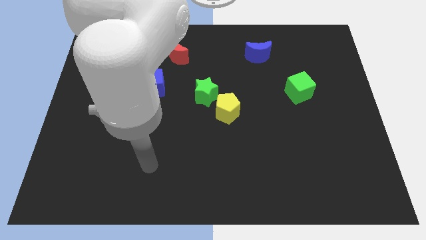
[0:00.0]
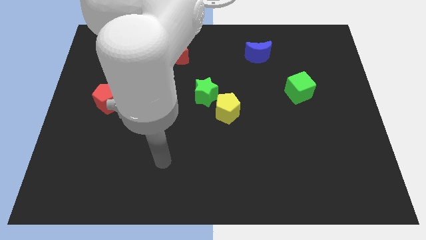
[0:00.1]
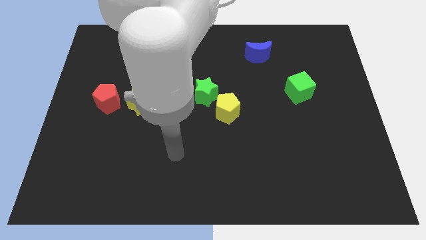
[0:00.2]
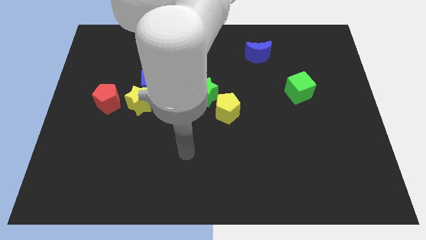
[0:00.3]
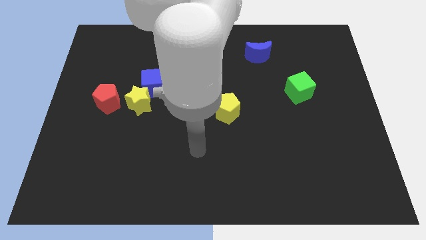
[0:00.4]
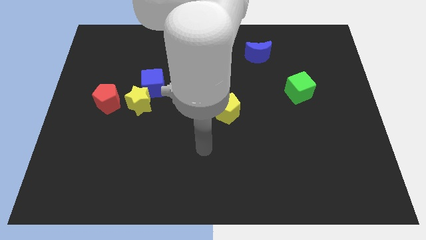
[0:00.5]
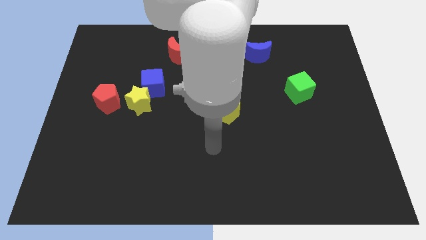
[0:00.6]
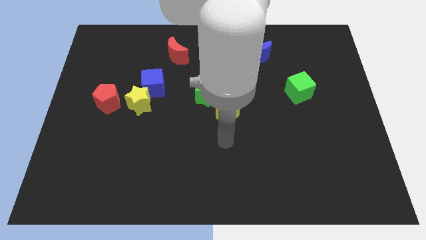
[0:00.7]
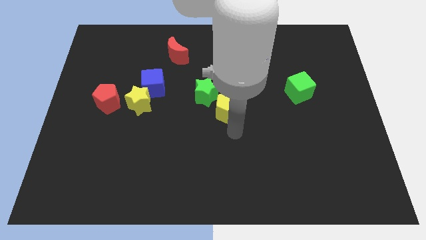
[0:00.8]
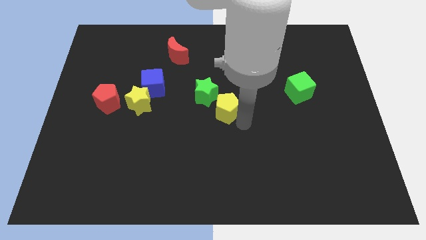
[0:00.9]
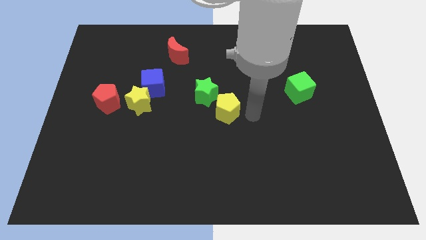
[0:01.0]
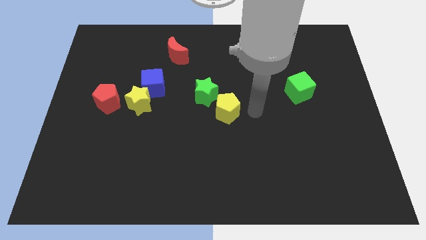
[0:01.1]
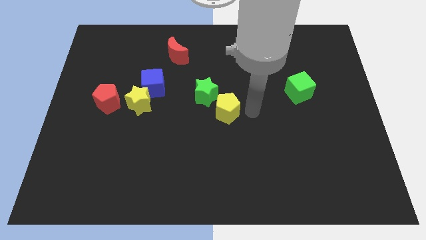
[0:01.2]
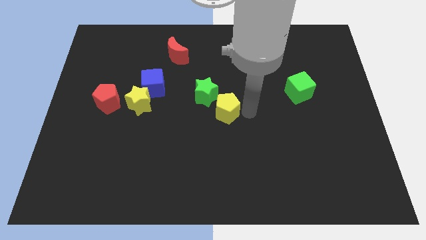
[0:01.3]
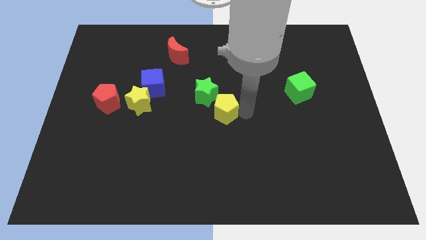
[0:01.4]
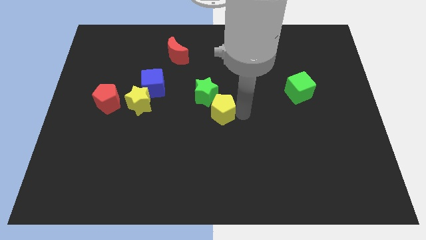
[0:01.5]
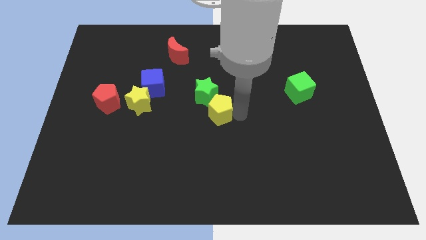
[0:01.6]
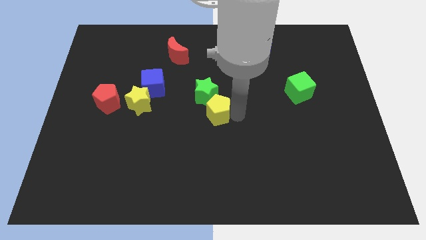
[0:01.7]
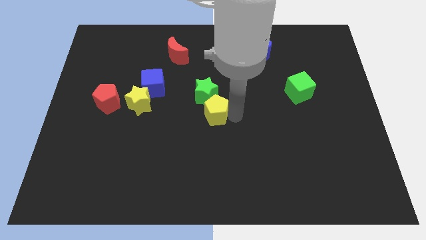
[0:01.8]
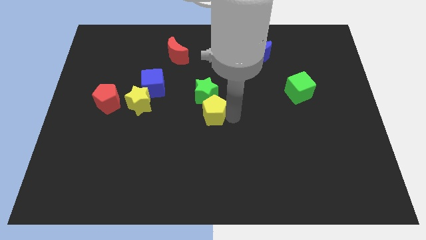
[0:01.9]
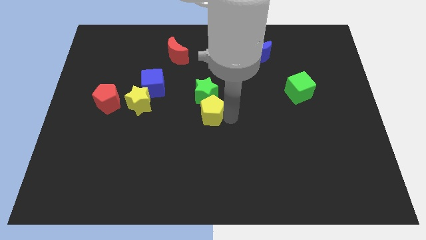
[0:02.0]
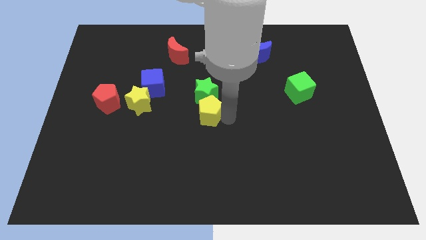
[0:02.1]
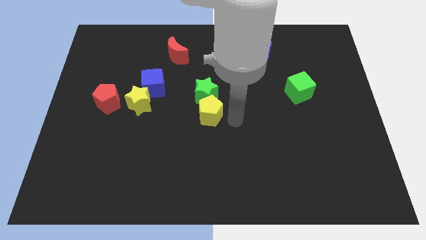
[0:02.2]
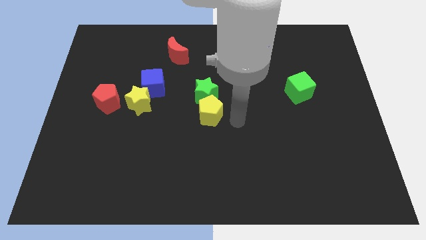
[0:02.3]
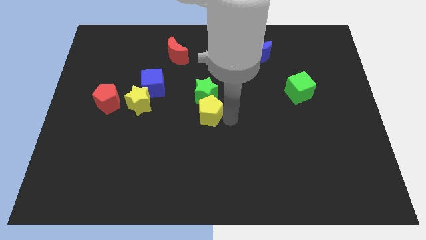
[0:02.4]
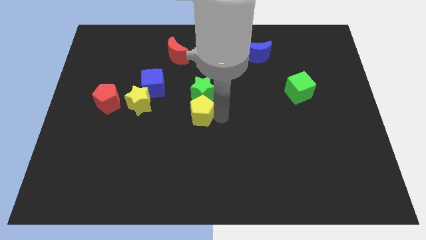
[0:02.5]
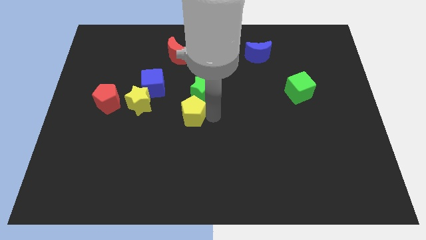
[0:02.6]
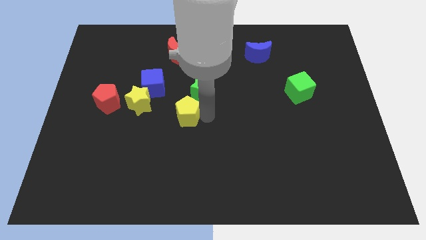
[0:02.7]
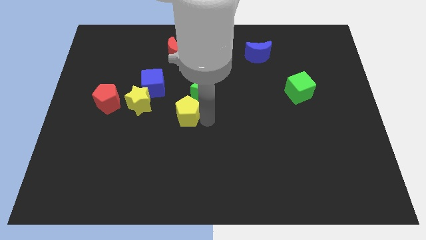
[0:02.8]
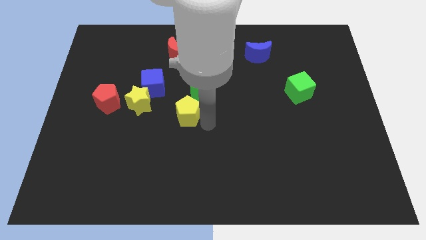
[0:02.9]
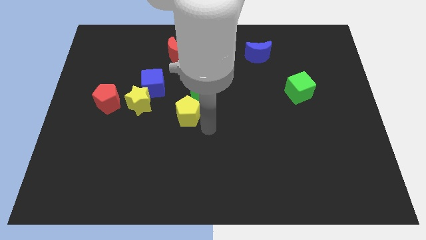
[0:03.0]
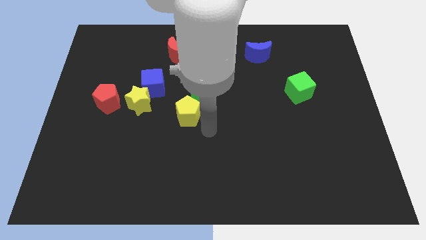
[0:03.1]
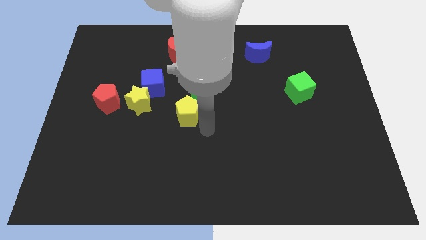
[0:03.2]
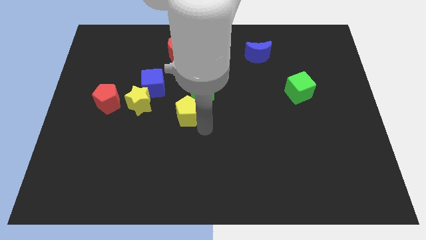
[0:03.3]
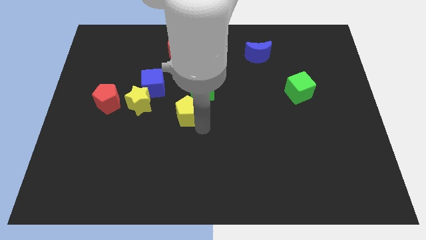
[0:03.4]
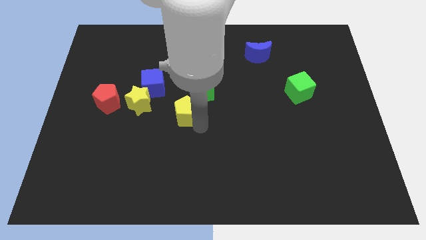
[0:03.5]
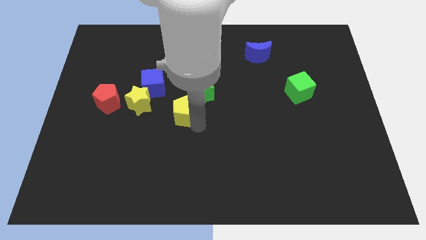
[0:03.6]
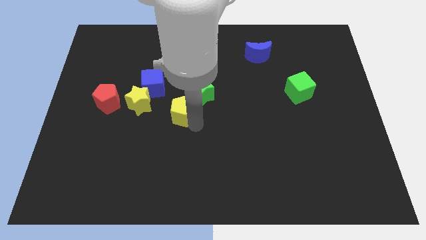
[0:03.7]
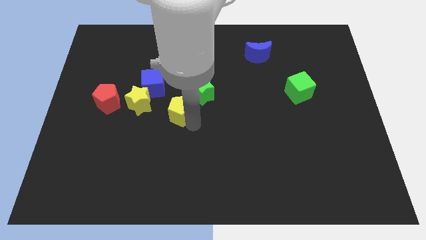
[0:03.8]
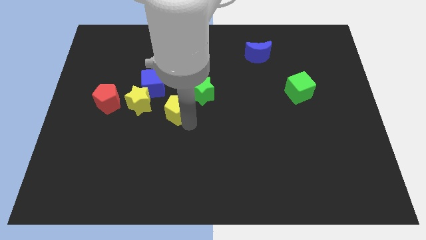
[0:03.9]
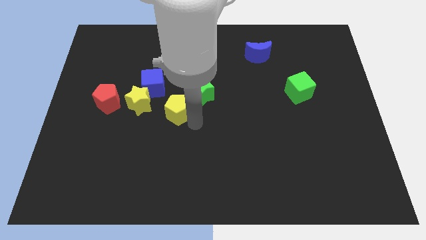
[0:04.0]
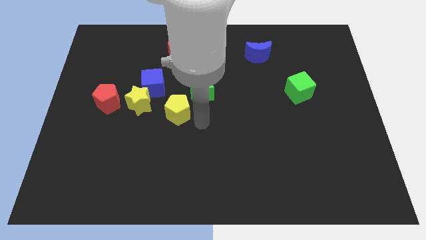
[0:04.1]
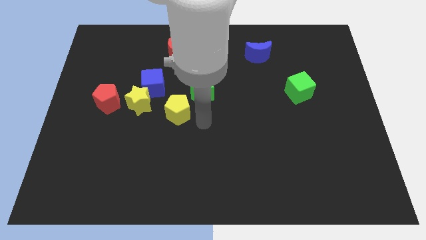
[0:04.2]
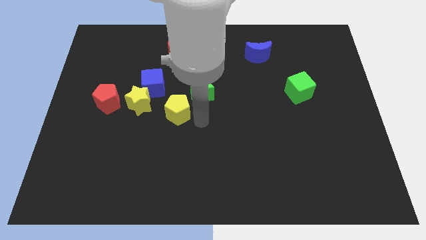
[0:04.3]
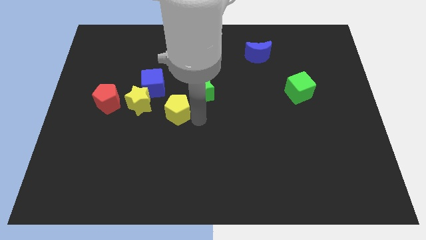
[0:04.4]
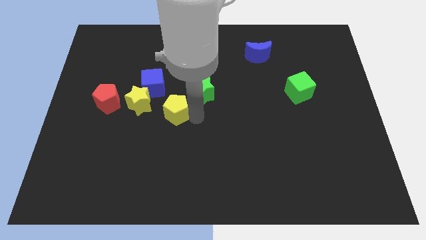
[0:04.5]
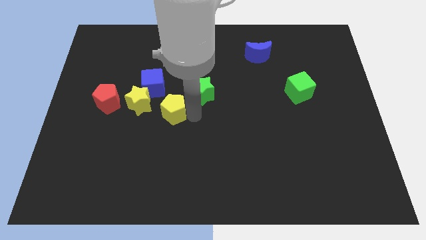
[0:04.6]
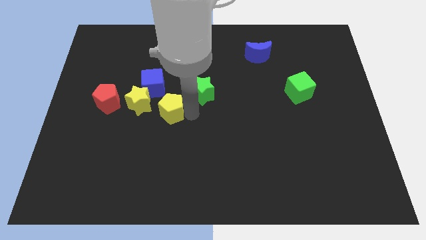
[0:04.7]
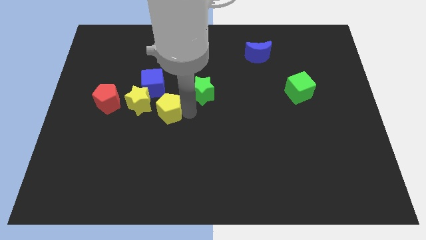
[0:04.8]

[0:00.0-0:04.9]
move the yellow pentagon right of the red pentagon

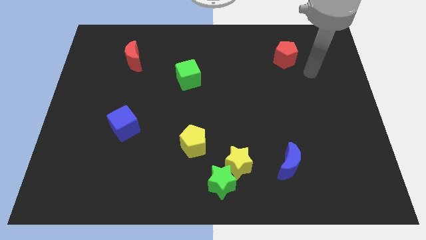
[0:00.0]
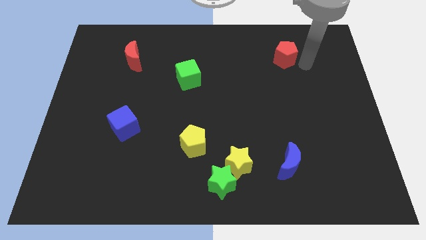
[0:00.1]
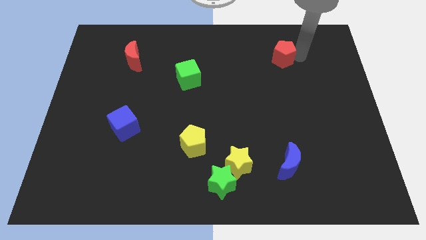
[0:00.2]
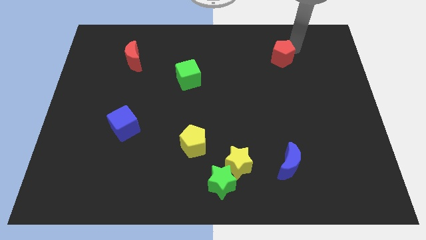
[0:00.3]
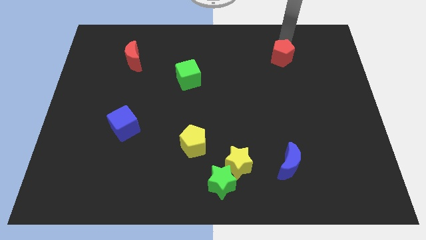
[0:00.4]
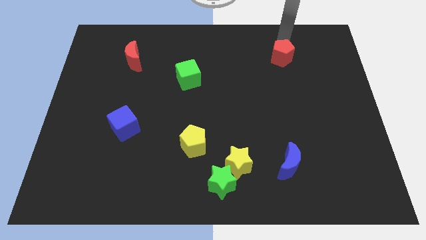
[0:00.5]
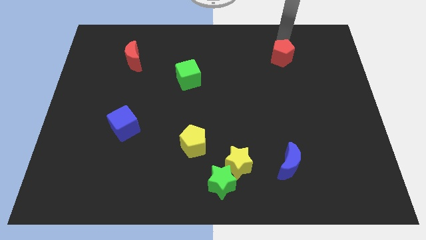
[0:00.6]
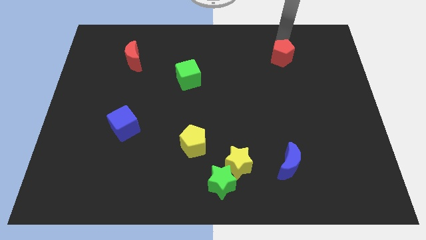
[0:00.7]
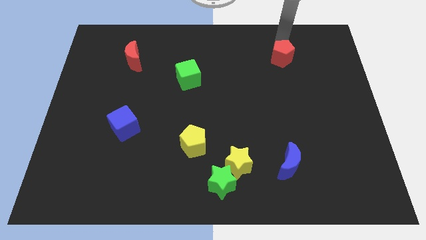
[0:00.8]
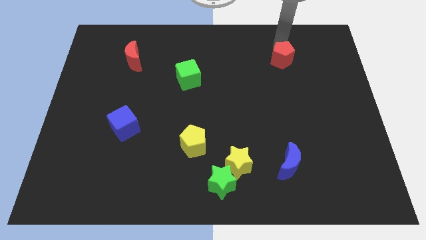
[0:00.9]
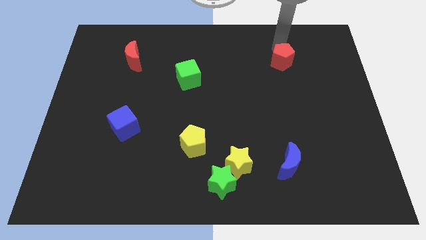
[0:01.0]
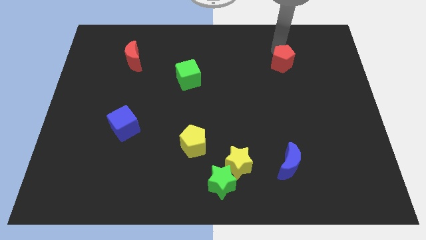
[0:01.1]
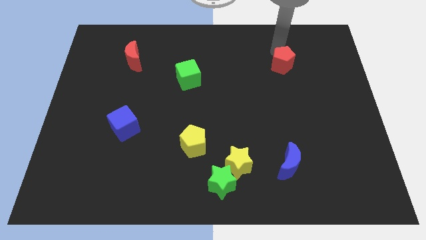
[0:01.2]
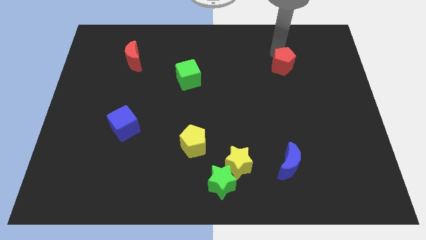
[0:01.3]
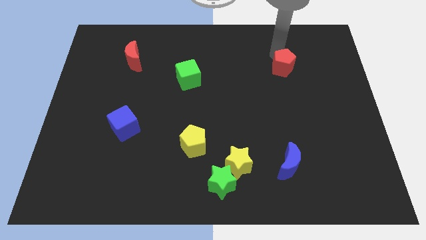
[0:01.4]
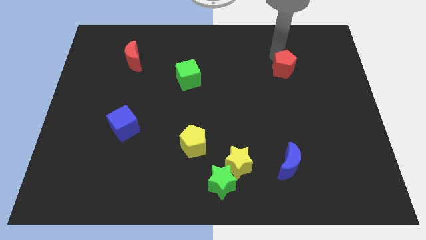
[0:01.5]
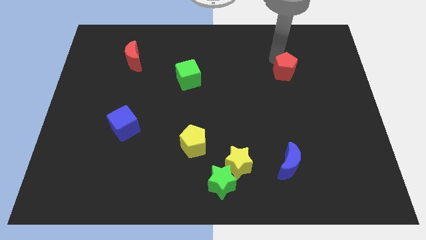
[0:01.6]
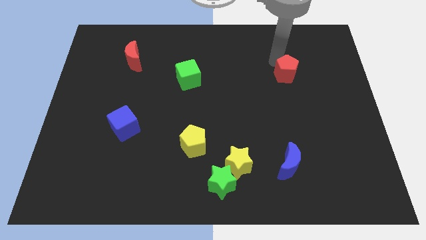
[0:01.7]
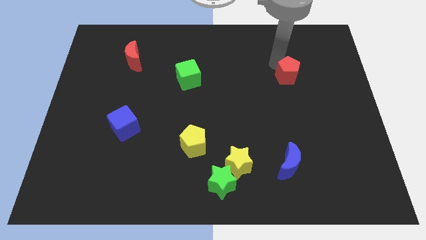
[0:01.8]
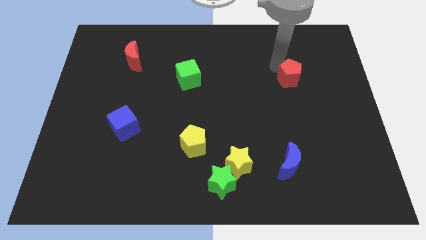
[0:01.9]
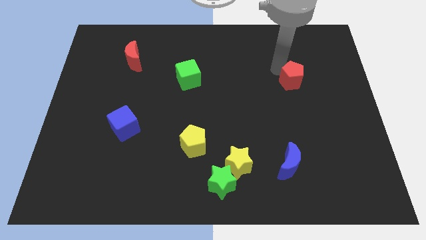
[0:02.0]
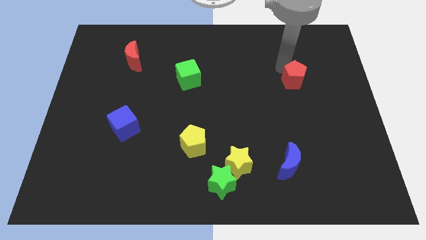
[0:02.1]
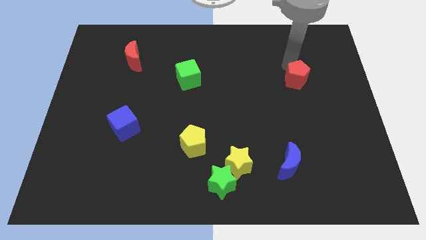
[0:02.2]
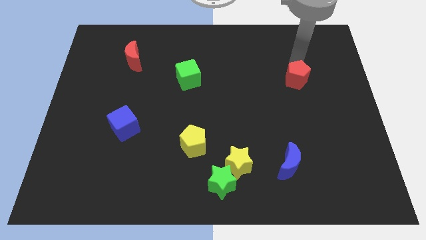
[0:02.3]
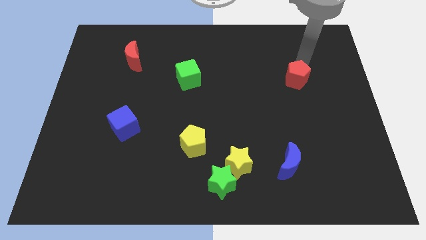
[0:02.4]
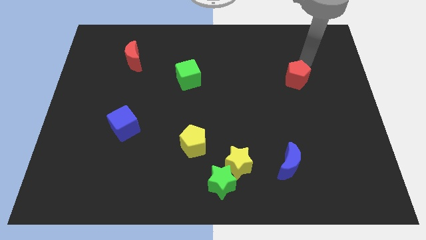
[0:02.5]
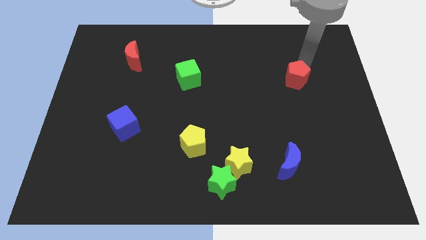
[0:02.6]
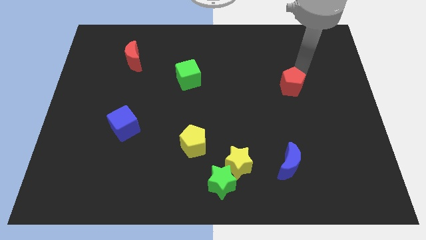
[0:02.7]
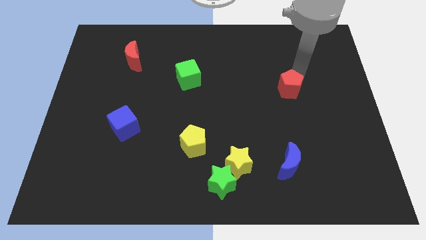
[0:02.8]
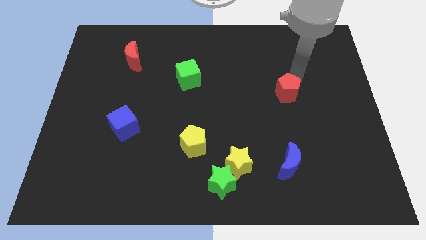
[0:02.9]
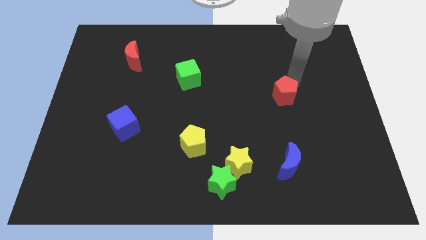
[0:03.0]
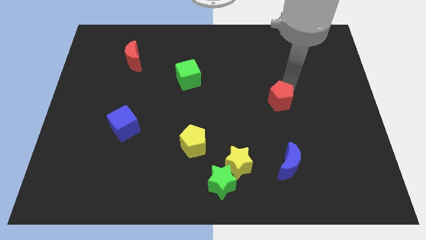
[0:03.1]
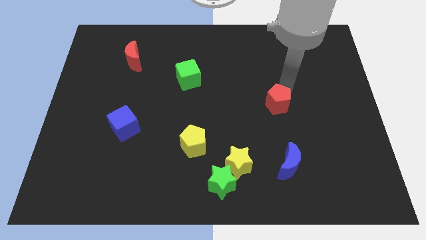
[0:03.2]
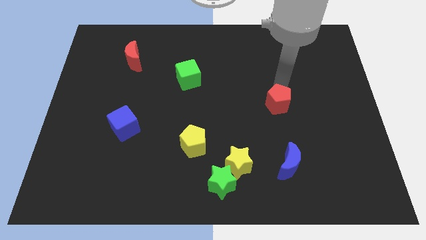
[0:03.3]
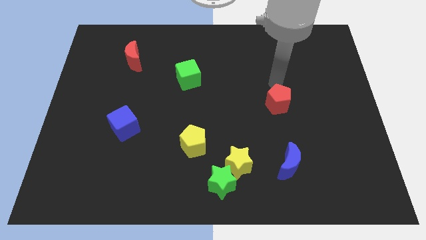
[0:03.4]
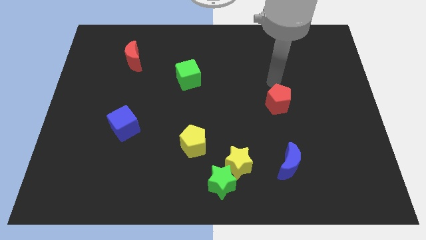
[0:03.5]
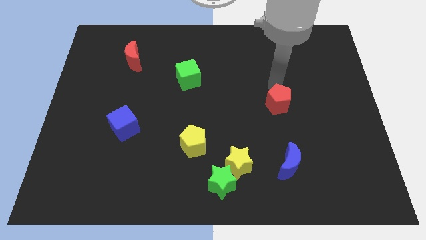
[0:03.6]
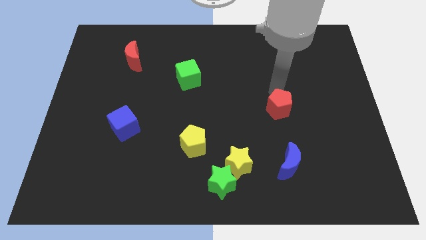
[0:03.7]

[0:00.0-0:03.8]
put the red pentagon above the blue moon
